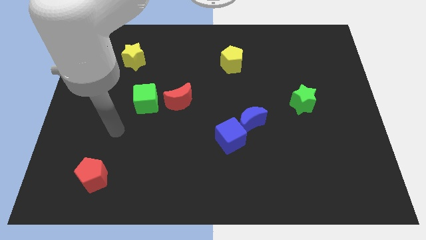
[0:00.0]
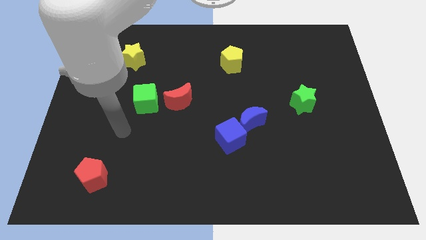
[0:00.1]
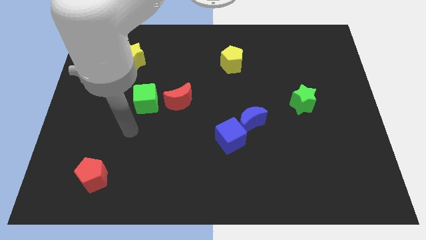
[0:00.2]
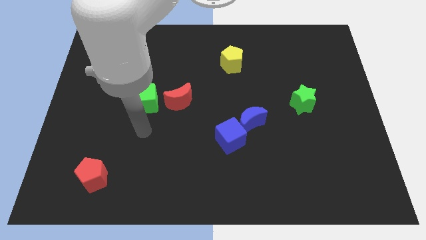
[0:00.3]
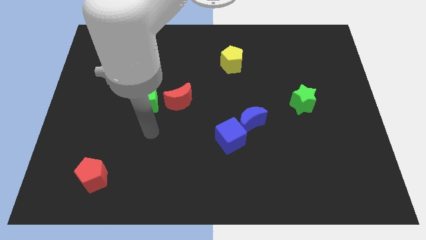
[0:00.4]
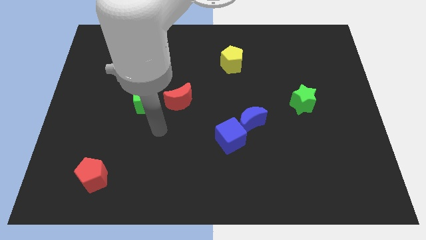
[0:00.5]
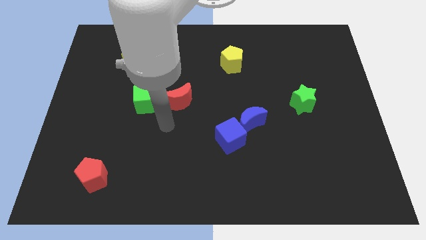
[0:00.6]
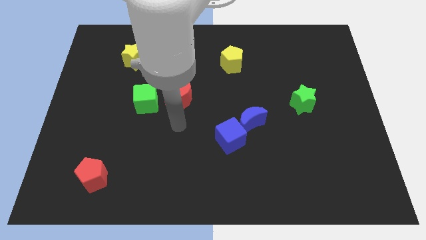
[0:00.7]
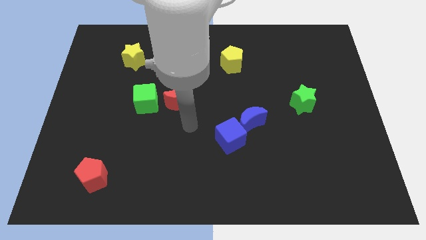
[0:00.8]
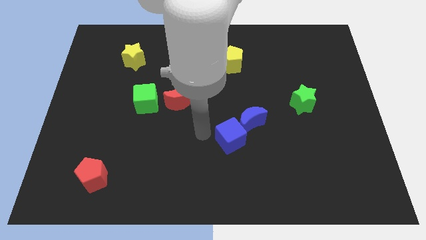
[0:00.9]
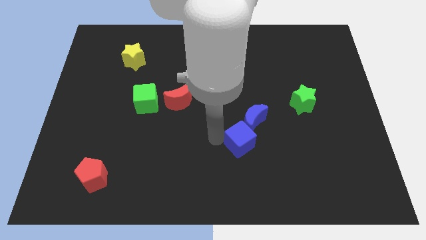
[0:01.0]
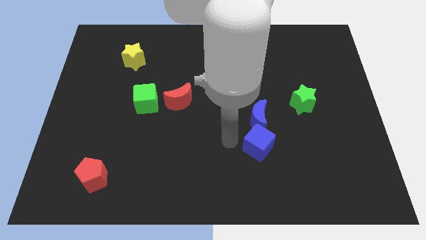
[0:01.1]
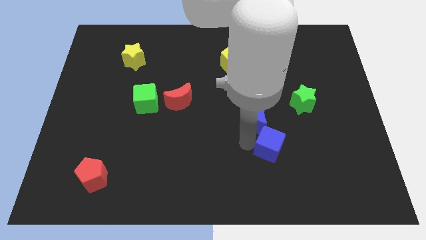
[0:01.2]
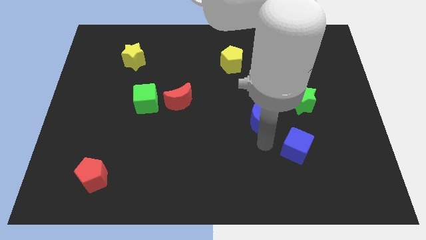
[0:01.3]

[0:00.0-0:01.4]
move the blue moon away from the blue cube

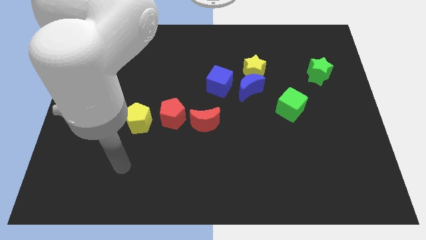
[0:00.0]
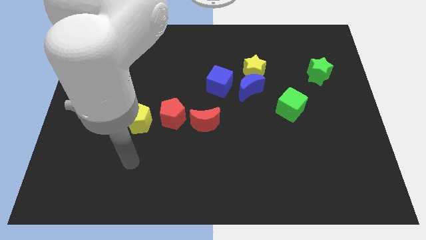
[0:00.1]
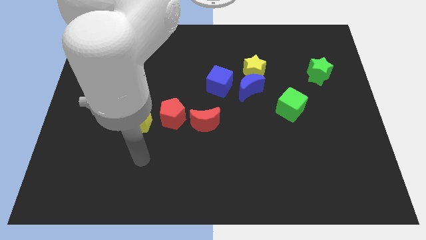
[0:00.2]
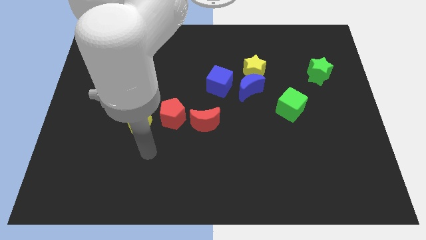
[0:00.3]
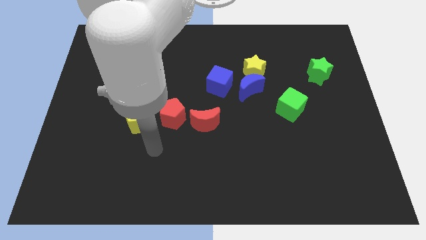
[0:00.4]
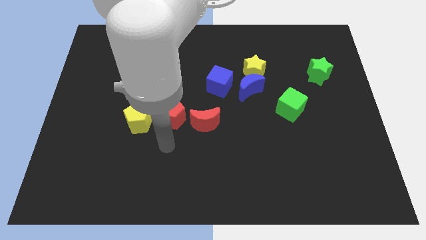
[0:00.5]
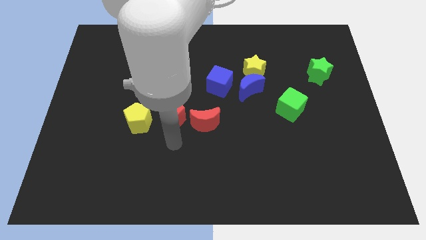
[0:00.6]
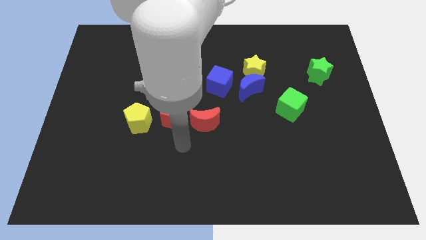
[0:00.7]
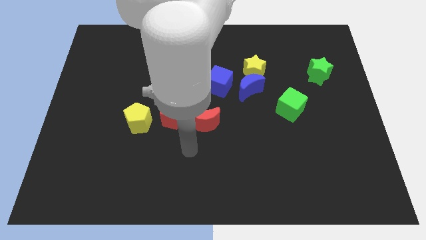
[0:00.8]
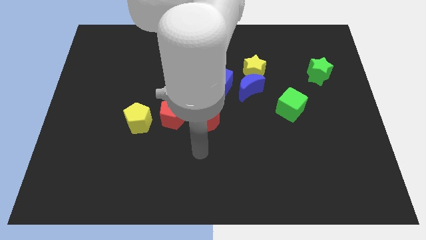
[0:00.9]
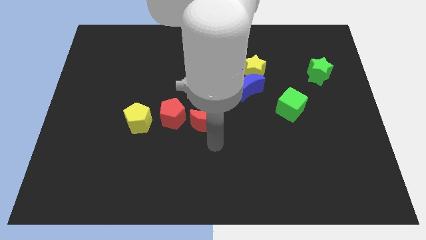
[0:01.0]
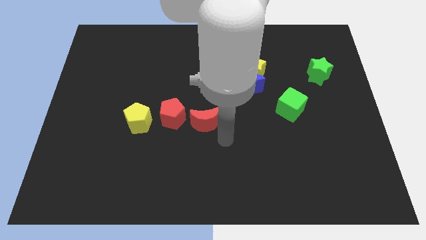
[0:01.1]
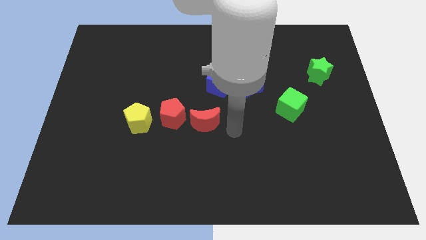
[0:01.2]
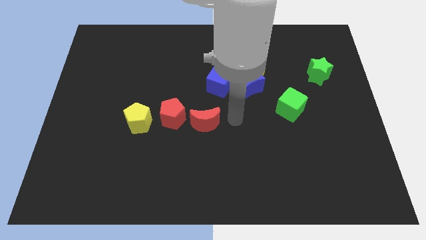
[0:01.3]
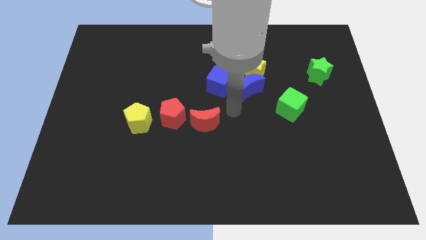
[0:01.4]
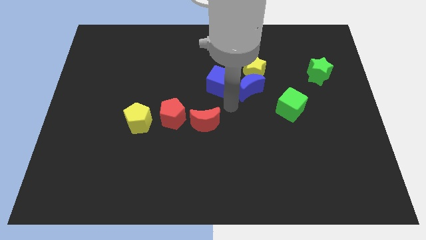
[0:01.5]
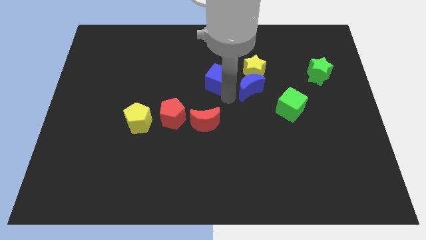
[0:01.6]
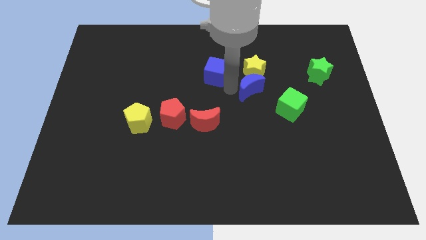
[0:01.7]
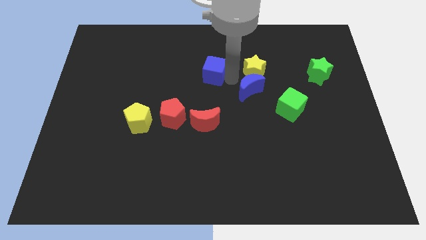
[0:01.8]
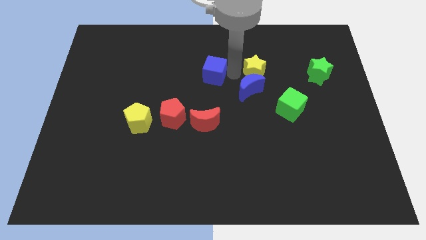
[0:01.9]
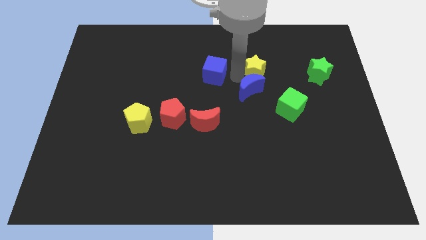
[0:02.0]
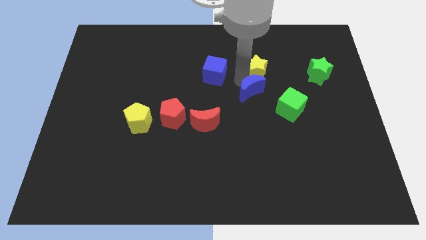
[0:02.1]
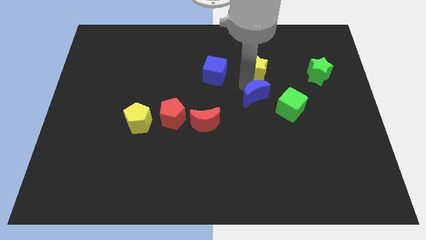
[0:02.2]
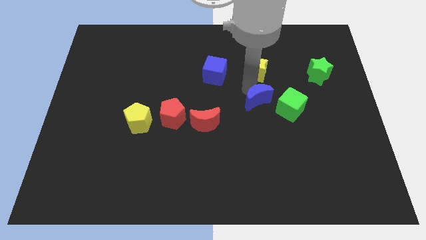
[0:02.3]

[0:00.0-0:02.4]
pull the blue moon apart from the yellow star and blue cube

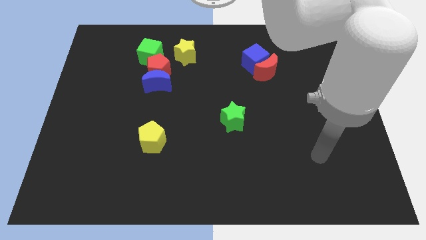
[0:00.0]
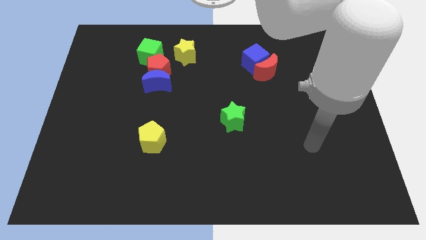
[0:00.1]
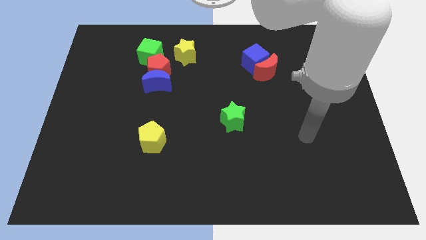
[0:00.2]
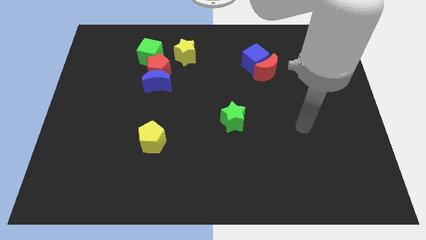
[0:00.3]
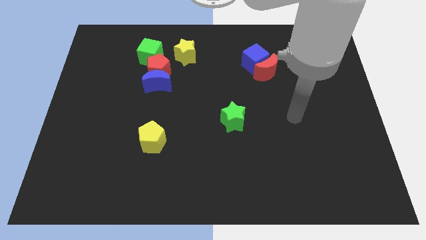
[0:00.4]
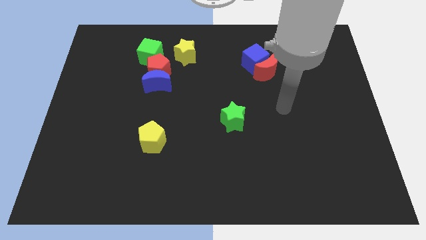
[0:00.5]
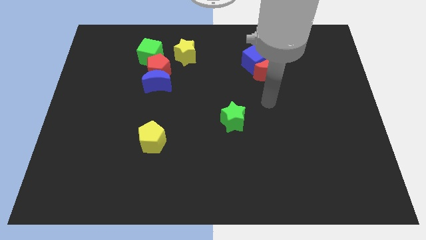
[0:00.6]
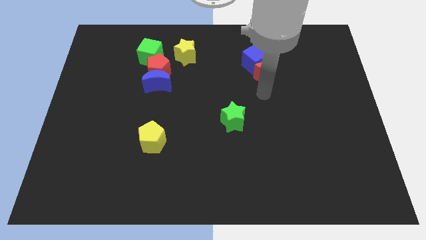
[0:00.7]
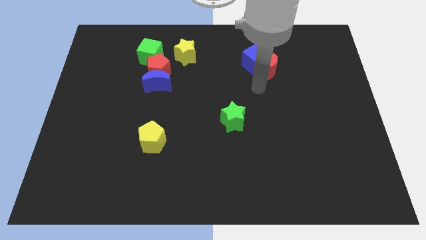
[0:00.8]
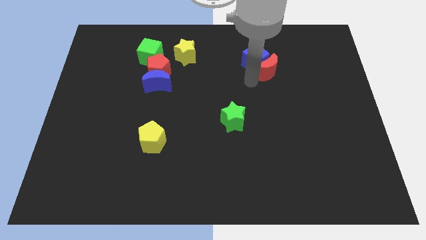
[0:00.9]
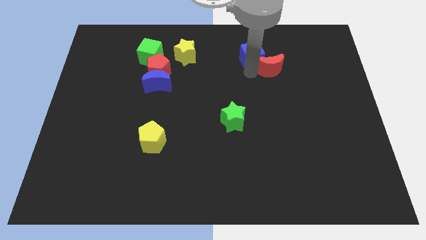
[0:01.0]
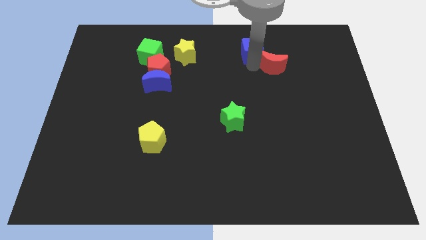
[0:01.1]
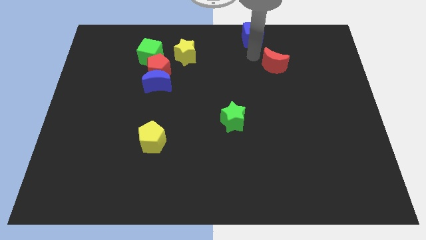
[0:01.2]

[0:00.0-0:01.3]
separate the red moon from the blue cube

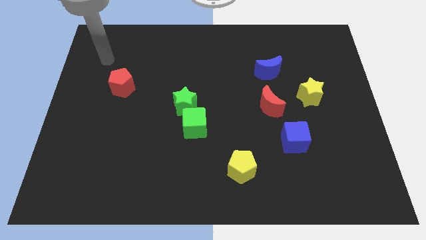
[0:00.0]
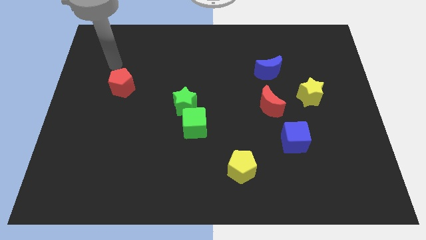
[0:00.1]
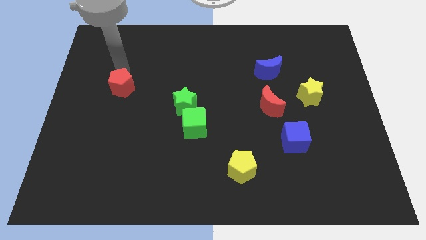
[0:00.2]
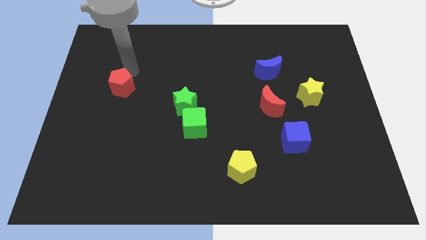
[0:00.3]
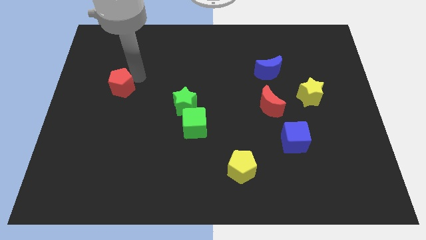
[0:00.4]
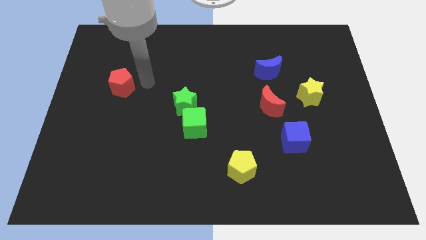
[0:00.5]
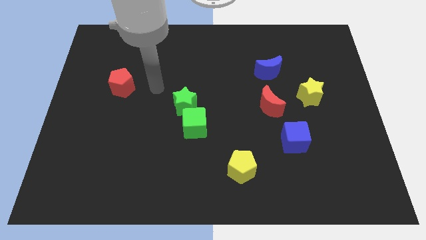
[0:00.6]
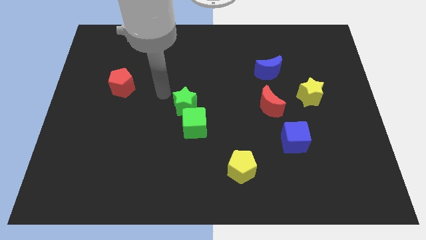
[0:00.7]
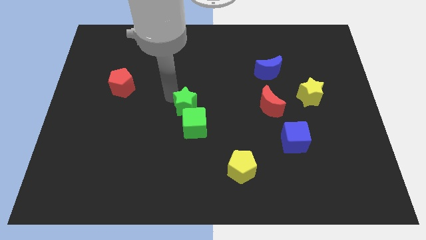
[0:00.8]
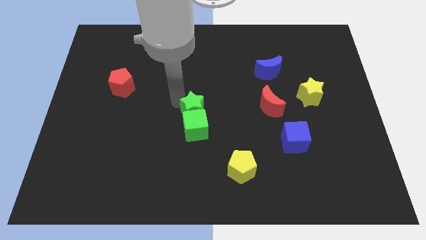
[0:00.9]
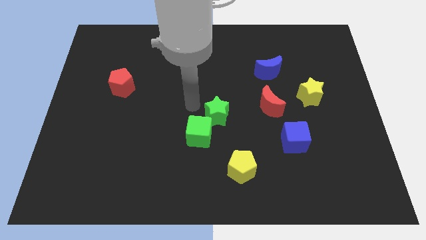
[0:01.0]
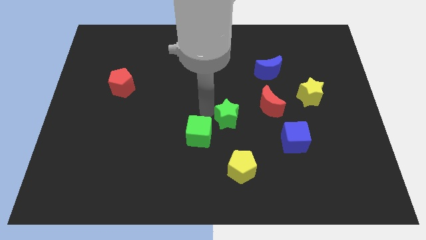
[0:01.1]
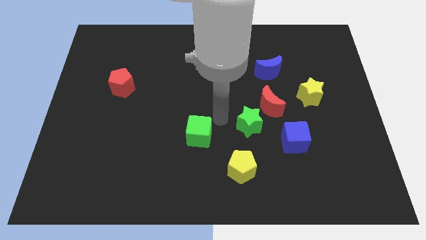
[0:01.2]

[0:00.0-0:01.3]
pull the green cube apart from the green star

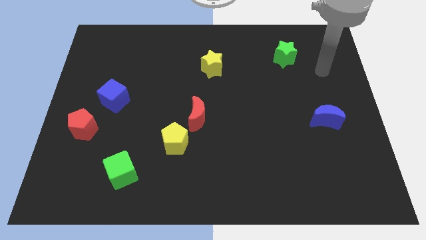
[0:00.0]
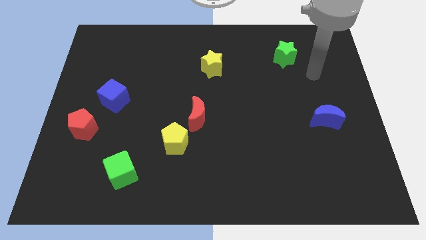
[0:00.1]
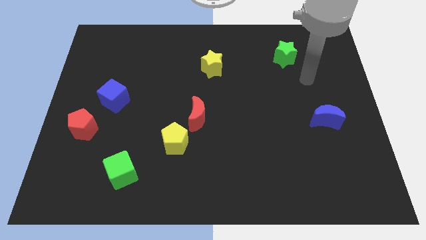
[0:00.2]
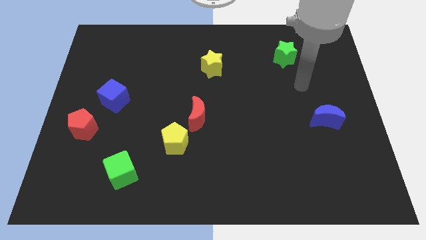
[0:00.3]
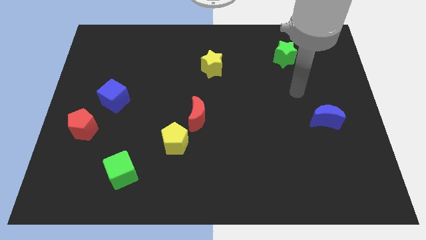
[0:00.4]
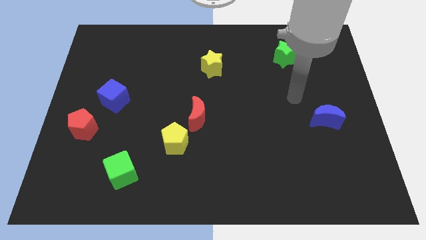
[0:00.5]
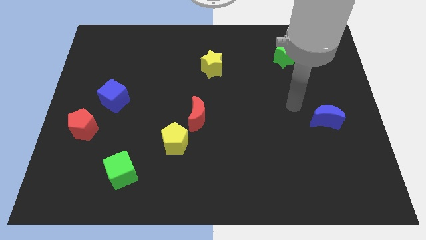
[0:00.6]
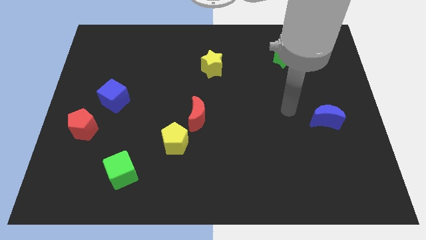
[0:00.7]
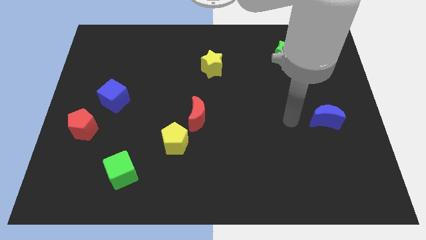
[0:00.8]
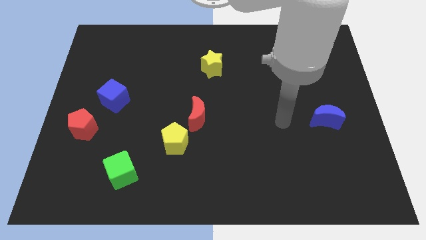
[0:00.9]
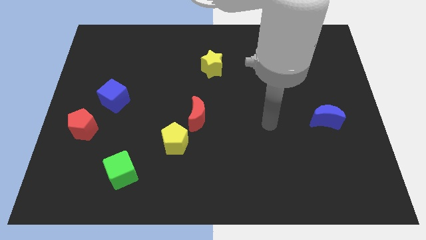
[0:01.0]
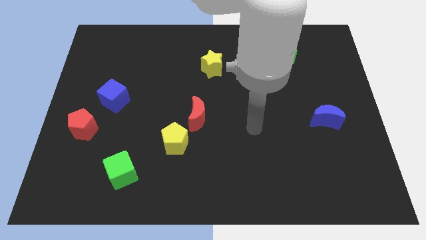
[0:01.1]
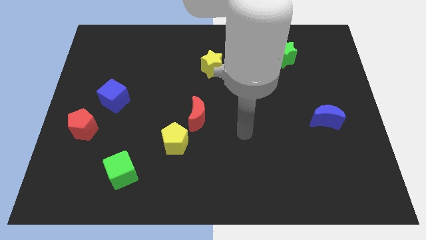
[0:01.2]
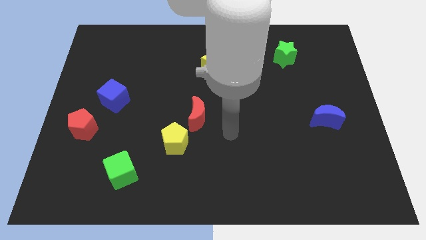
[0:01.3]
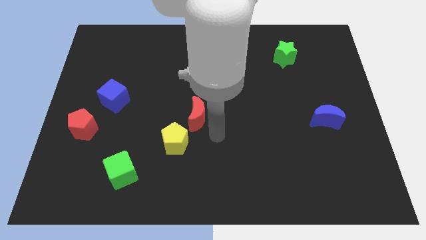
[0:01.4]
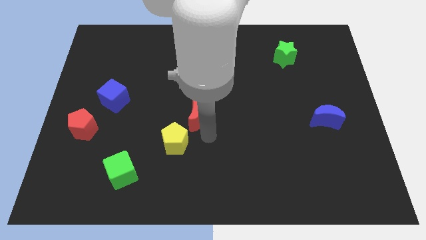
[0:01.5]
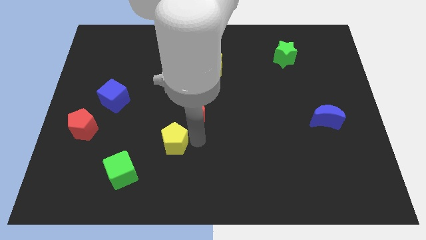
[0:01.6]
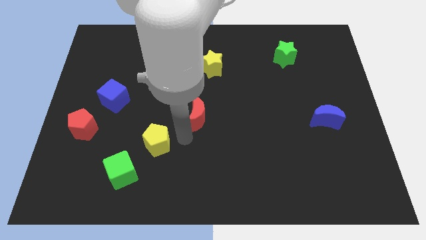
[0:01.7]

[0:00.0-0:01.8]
move the red moon away from the yellow pentagon

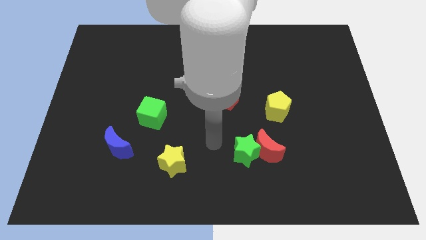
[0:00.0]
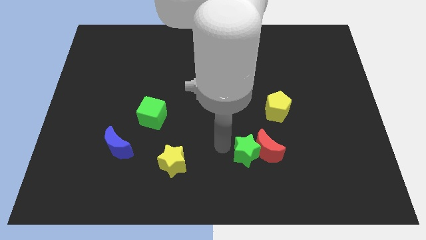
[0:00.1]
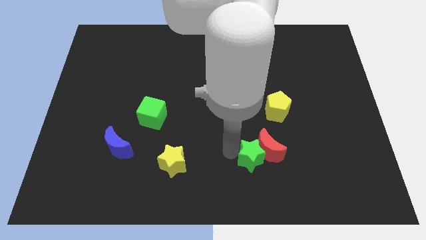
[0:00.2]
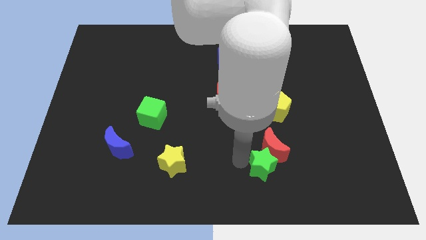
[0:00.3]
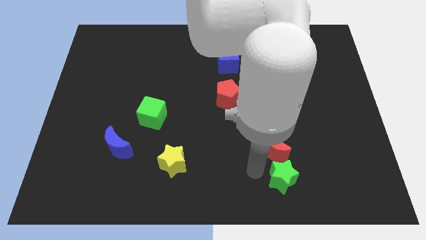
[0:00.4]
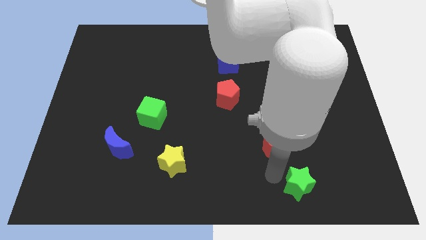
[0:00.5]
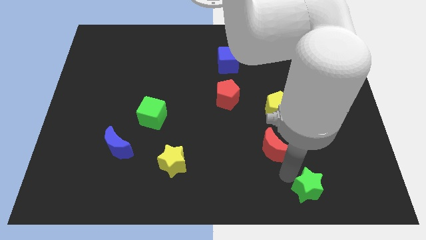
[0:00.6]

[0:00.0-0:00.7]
separate the red moon from the green star

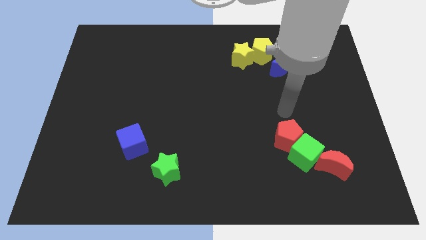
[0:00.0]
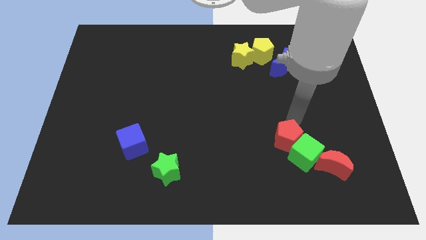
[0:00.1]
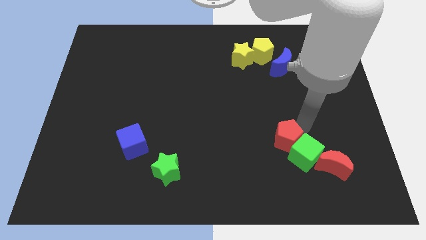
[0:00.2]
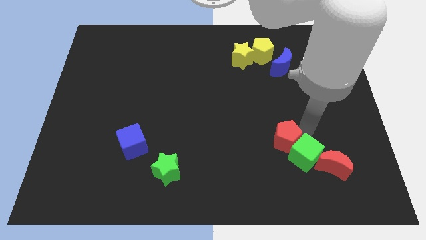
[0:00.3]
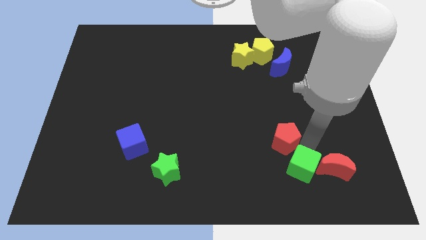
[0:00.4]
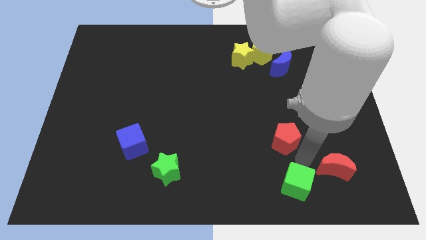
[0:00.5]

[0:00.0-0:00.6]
move the red pentagon away from the green cube
